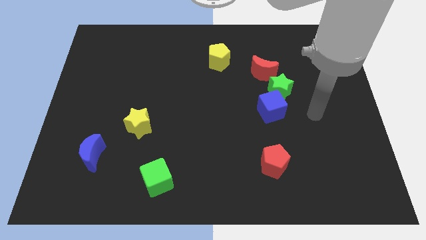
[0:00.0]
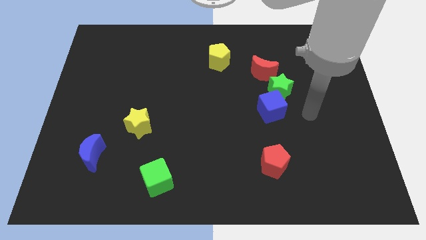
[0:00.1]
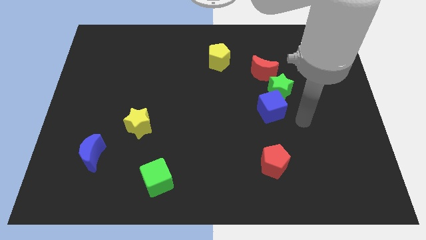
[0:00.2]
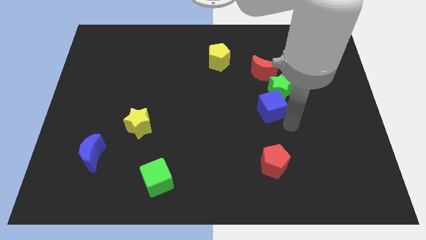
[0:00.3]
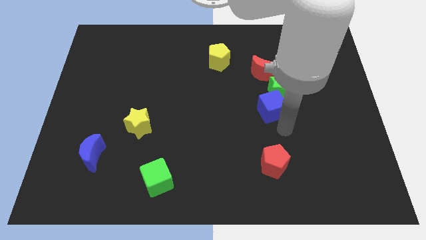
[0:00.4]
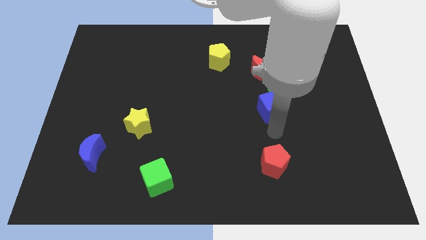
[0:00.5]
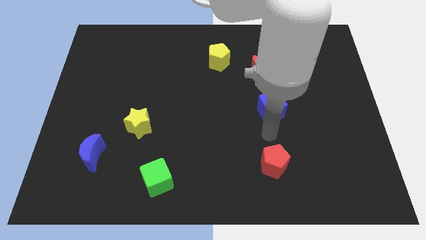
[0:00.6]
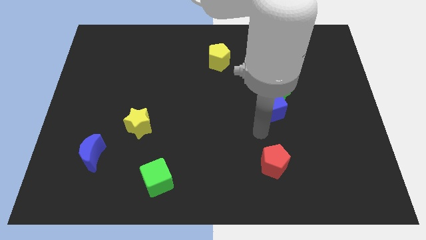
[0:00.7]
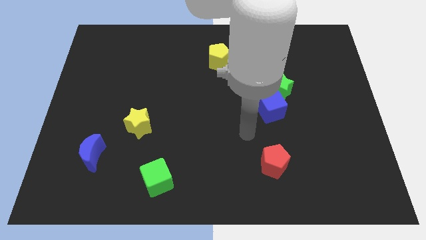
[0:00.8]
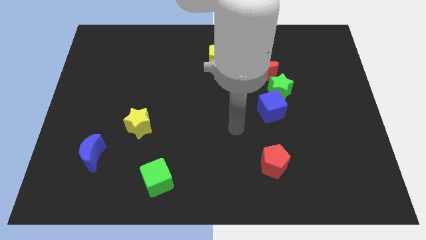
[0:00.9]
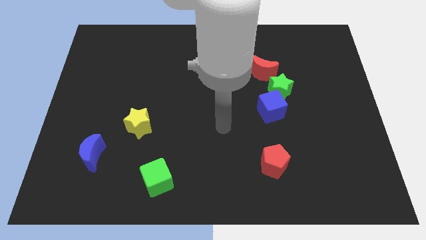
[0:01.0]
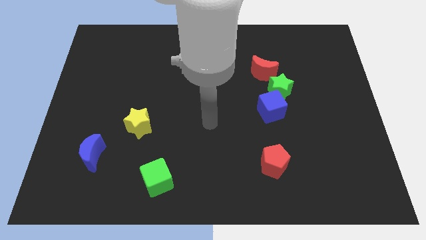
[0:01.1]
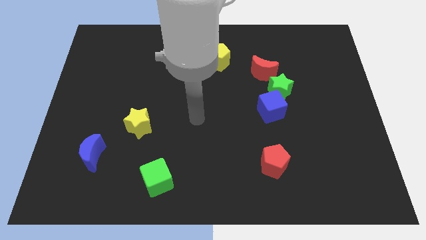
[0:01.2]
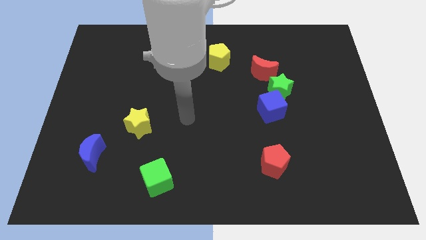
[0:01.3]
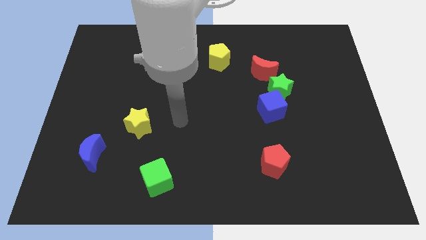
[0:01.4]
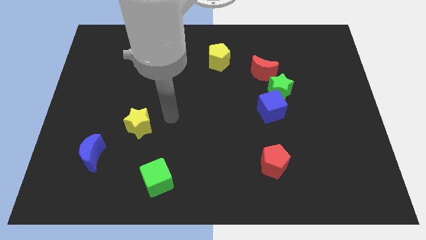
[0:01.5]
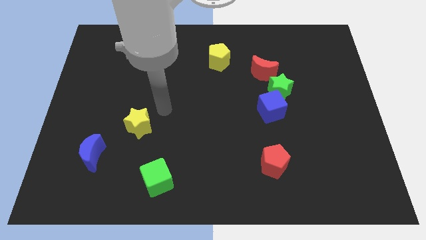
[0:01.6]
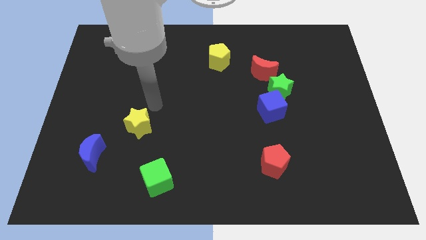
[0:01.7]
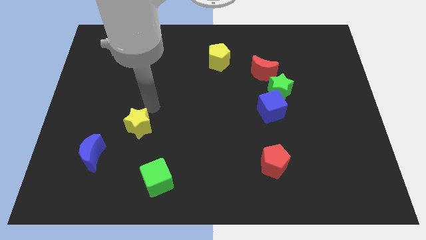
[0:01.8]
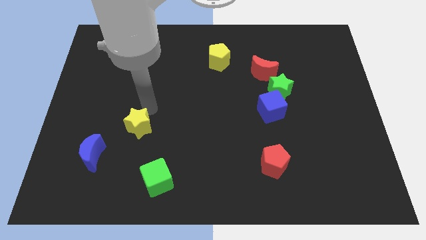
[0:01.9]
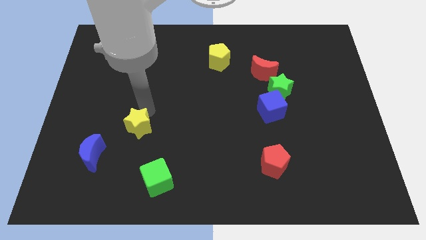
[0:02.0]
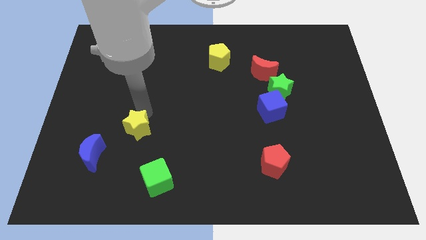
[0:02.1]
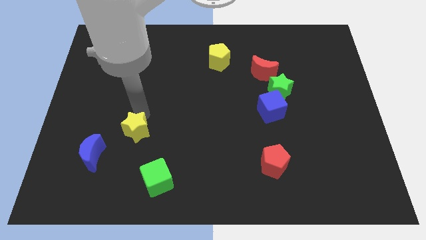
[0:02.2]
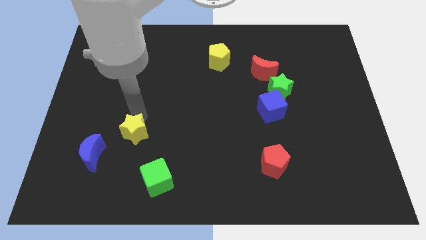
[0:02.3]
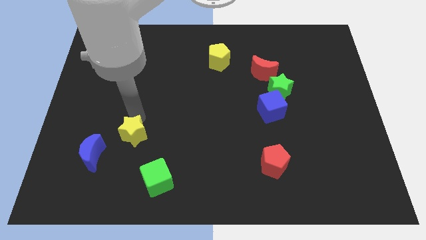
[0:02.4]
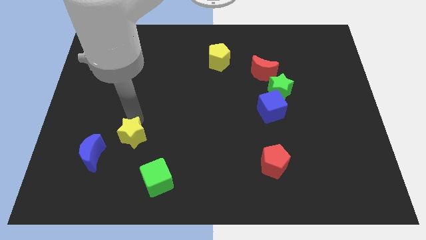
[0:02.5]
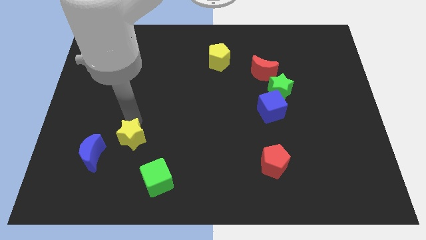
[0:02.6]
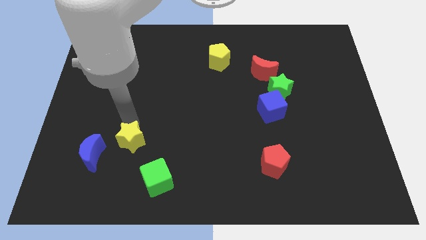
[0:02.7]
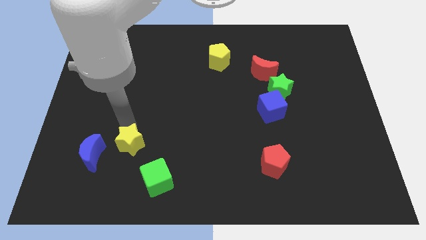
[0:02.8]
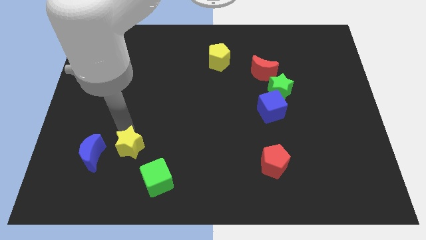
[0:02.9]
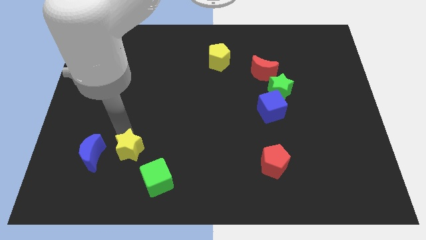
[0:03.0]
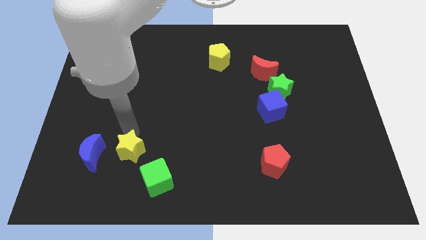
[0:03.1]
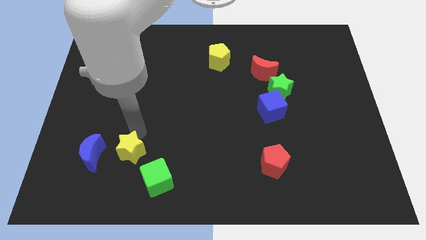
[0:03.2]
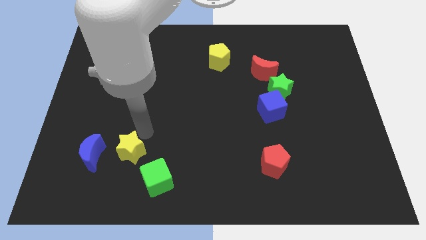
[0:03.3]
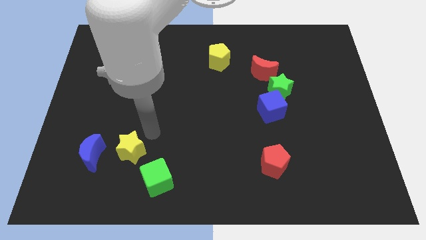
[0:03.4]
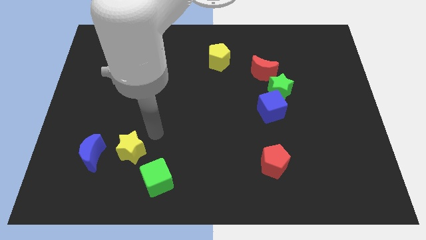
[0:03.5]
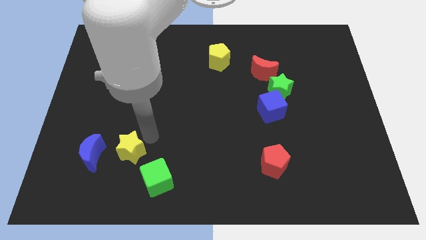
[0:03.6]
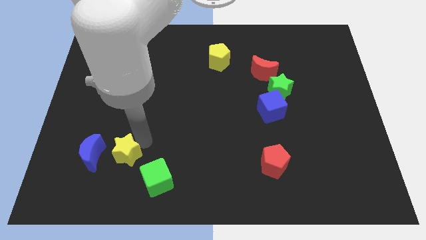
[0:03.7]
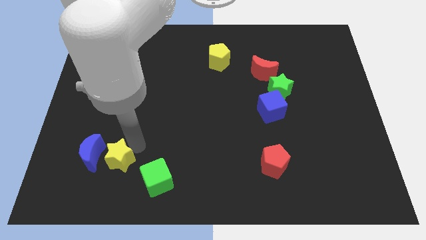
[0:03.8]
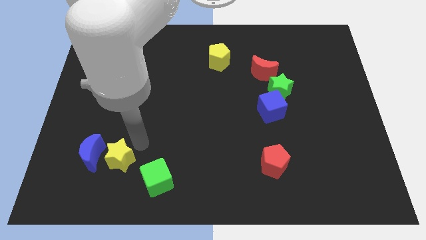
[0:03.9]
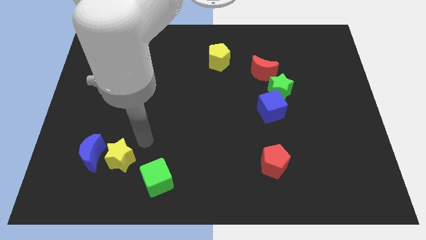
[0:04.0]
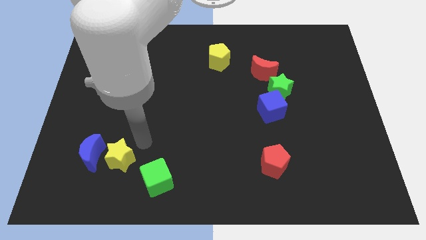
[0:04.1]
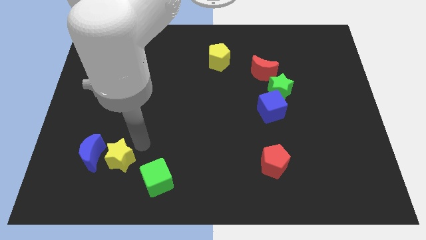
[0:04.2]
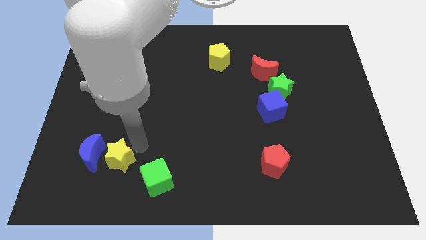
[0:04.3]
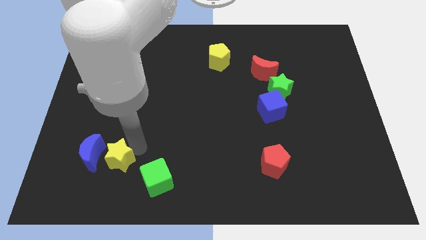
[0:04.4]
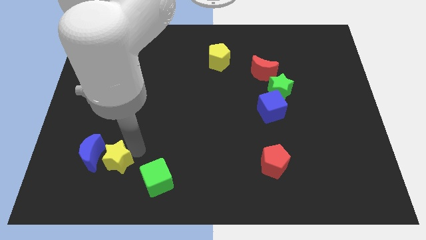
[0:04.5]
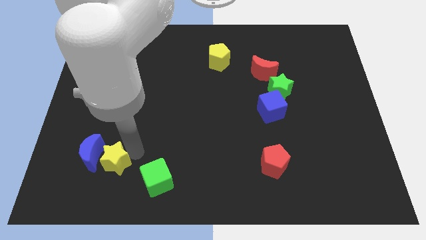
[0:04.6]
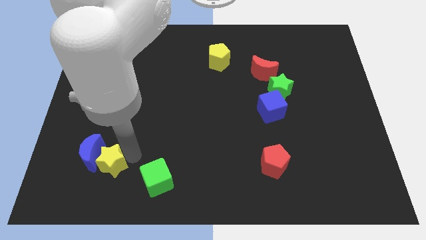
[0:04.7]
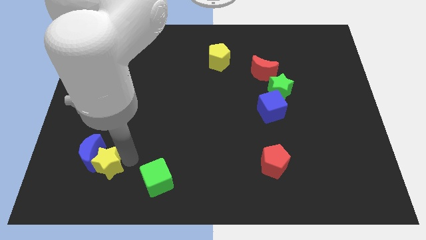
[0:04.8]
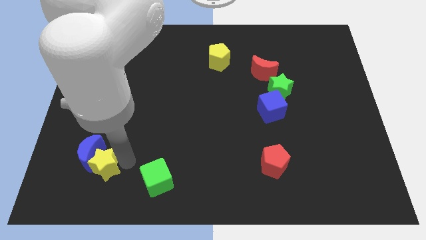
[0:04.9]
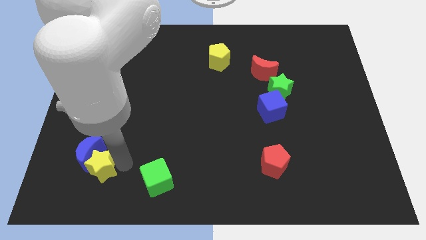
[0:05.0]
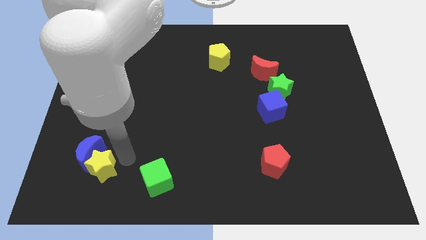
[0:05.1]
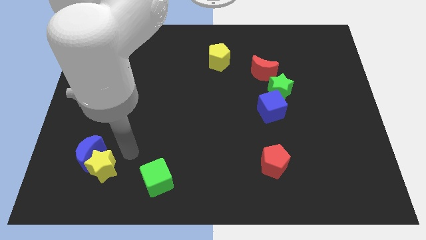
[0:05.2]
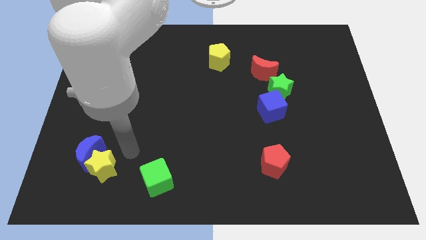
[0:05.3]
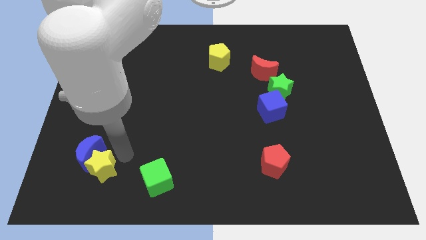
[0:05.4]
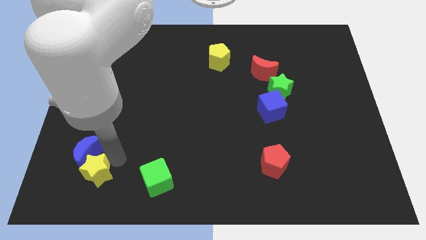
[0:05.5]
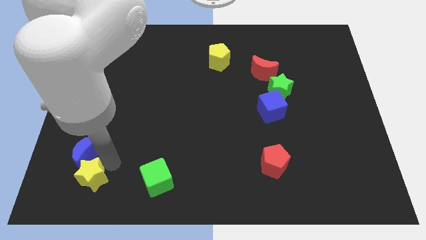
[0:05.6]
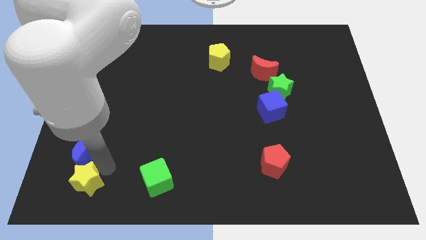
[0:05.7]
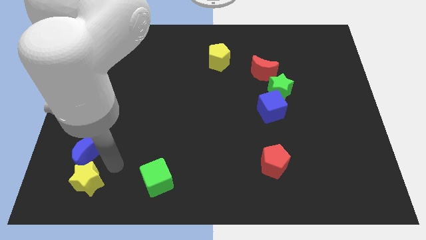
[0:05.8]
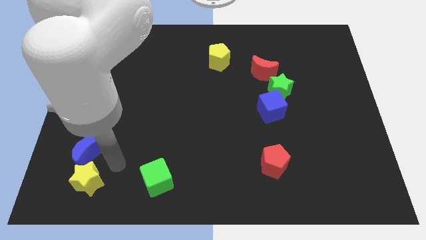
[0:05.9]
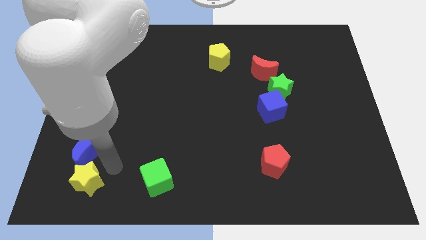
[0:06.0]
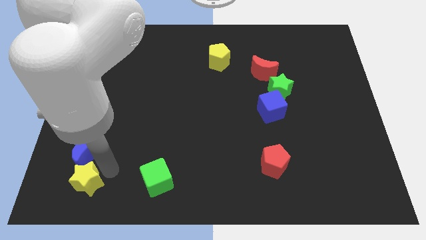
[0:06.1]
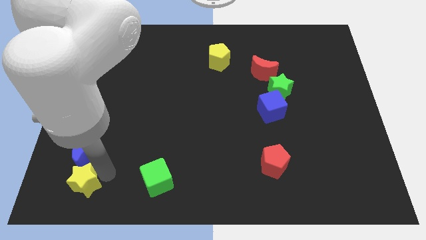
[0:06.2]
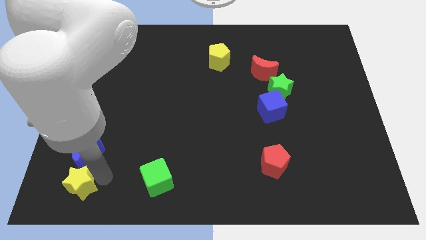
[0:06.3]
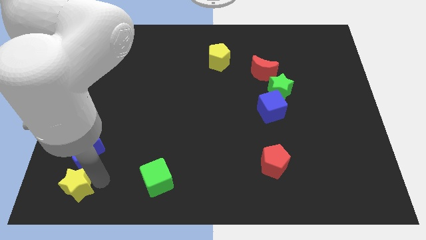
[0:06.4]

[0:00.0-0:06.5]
push the yellow star to the bottom left of the board
